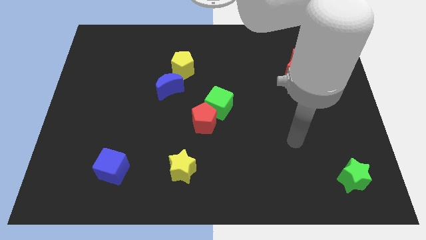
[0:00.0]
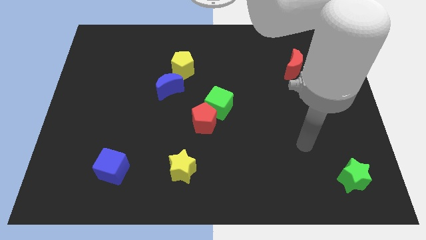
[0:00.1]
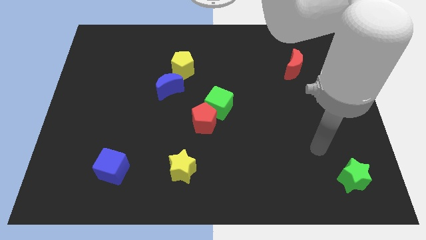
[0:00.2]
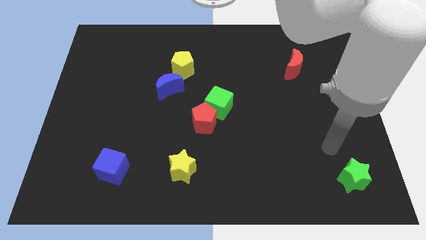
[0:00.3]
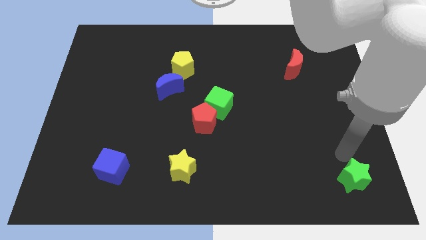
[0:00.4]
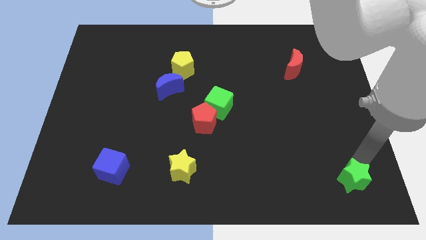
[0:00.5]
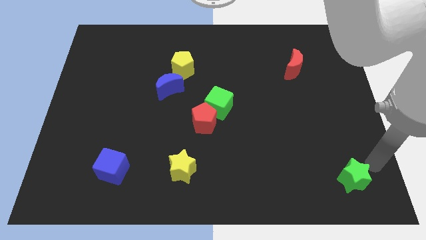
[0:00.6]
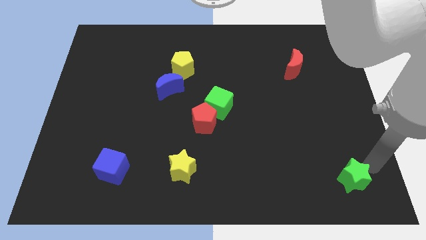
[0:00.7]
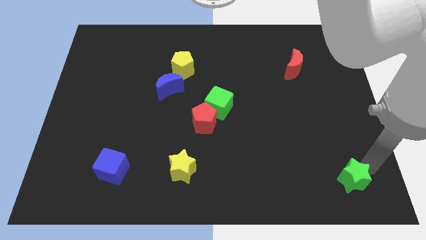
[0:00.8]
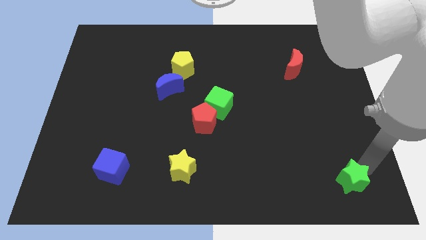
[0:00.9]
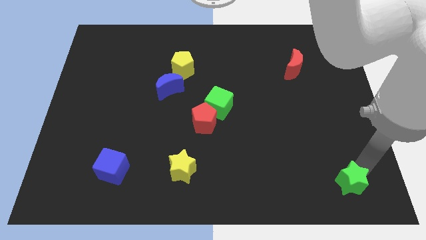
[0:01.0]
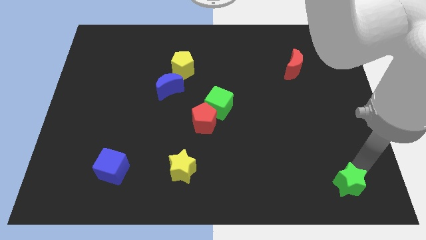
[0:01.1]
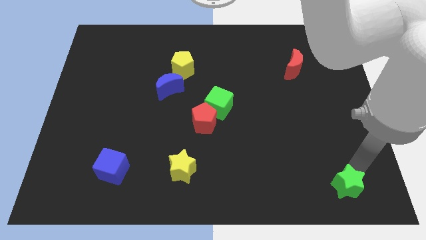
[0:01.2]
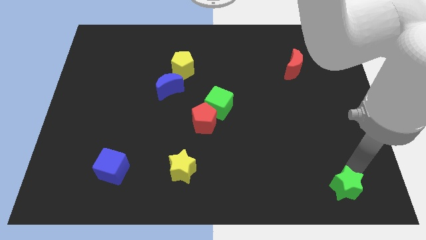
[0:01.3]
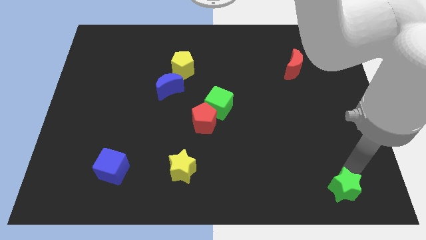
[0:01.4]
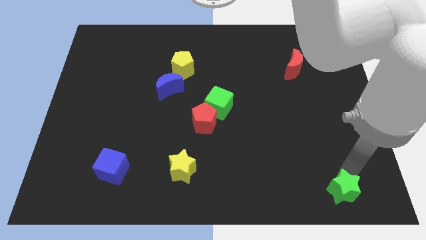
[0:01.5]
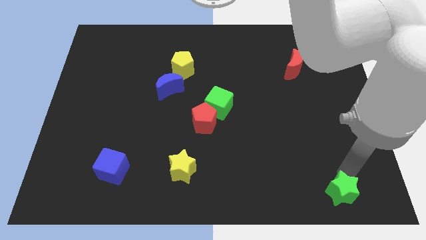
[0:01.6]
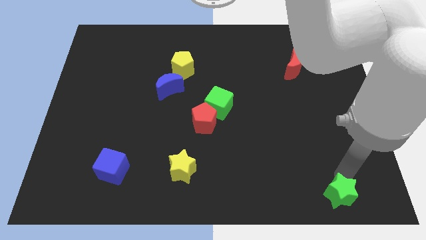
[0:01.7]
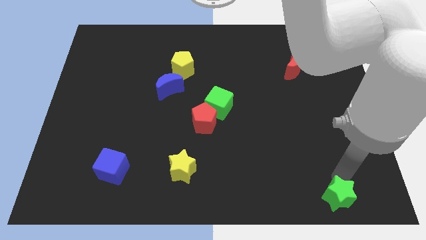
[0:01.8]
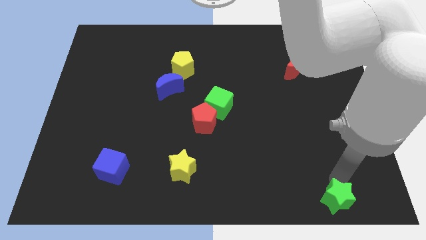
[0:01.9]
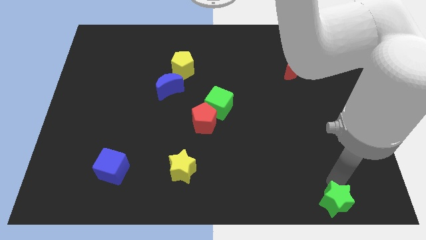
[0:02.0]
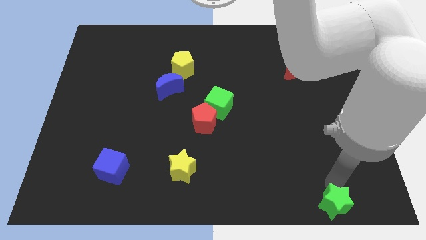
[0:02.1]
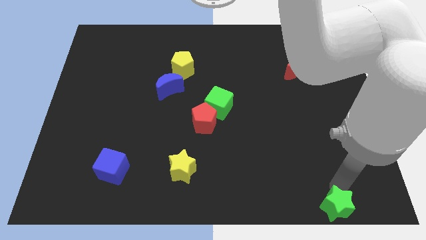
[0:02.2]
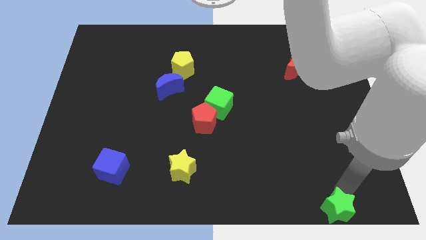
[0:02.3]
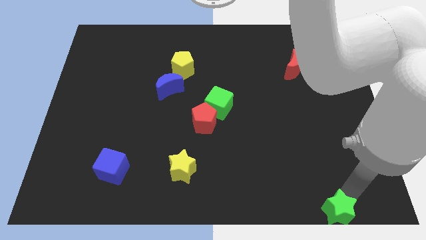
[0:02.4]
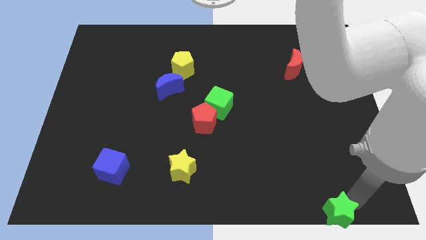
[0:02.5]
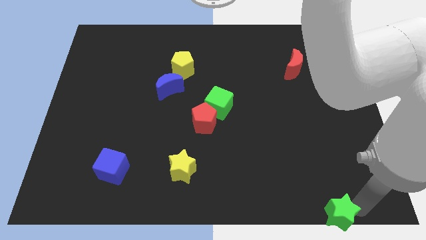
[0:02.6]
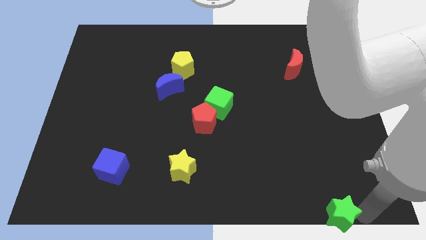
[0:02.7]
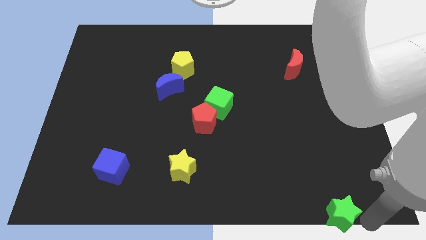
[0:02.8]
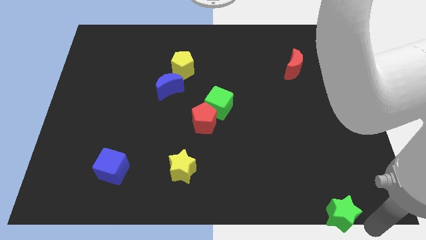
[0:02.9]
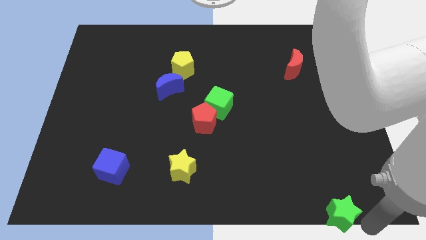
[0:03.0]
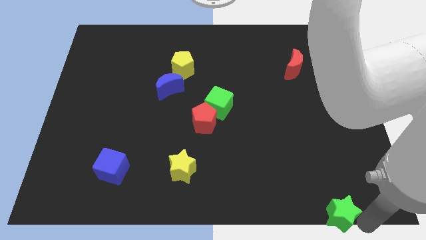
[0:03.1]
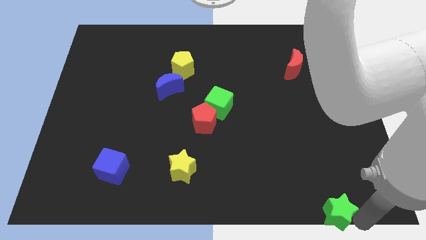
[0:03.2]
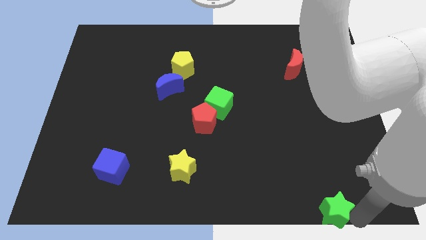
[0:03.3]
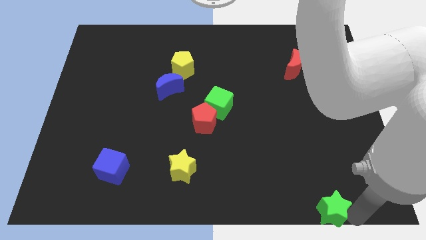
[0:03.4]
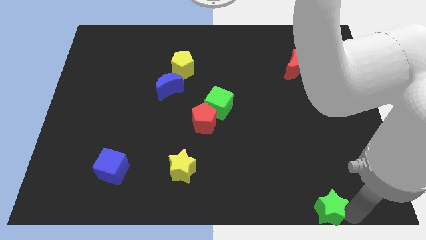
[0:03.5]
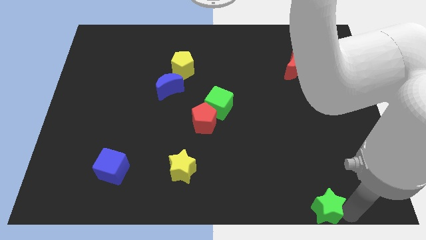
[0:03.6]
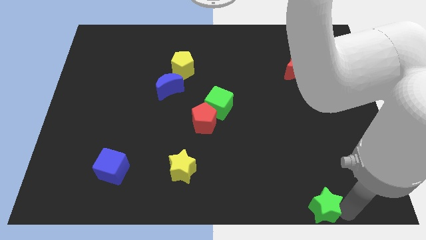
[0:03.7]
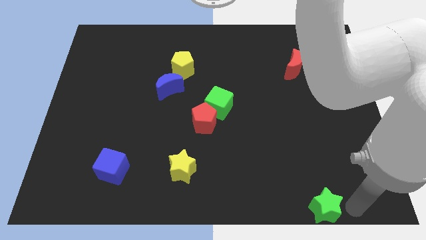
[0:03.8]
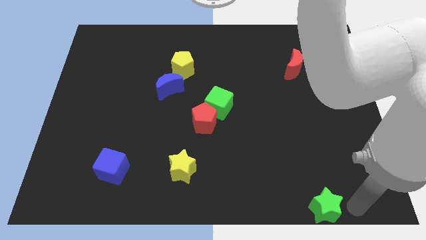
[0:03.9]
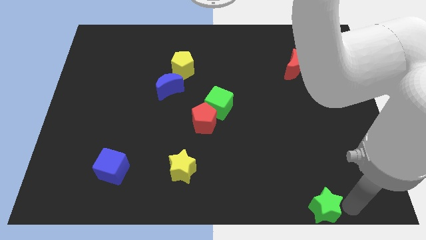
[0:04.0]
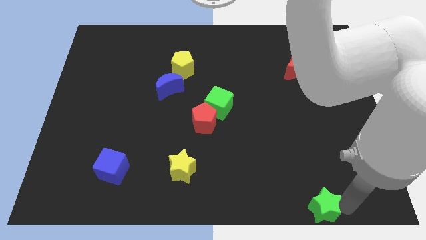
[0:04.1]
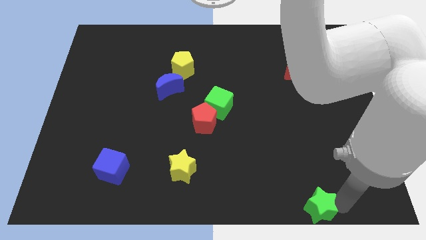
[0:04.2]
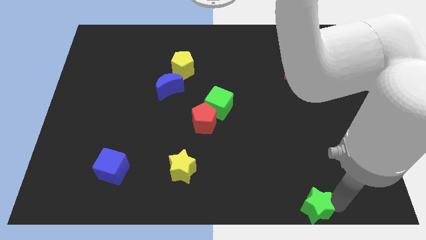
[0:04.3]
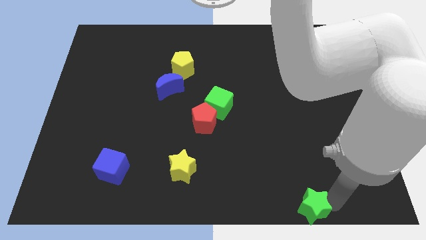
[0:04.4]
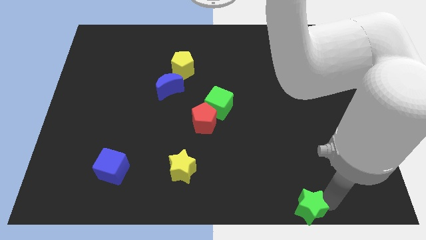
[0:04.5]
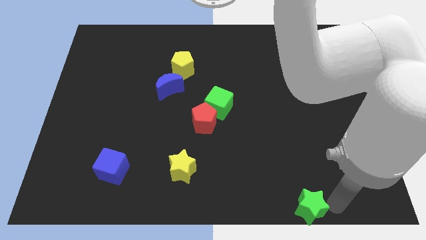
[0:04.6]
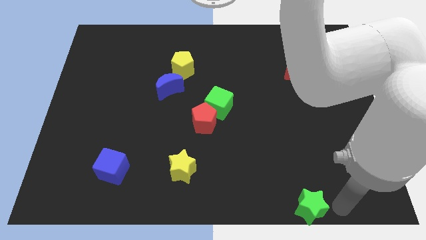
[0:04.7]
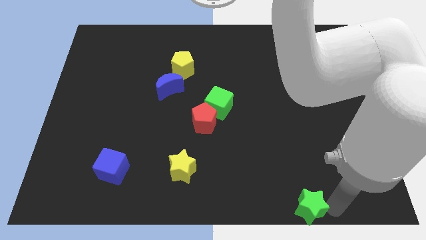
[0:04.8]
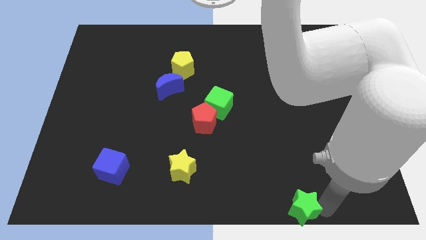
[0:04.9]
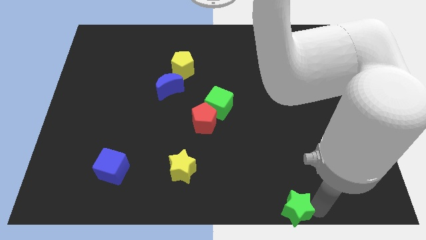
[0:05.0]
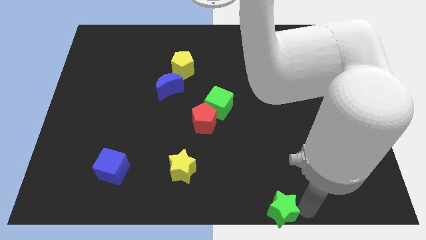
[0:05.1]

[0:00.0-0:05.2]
slide the green star to the bottom

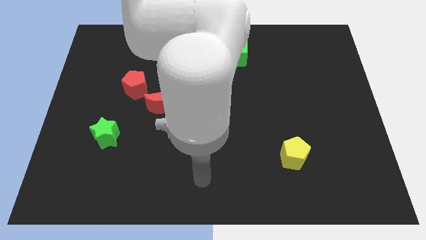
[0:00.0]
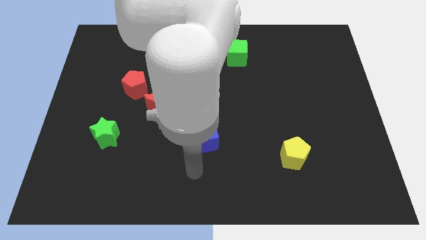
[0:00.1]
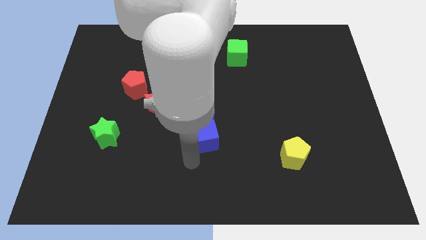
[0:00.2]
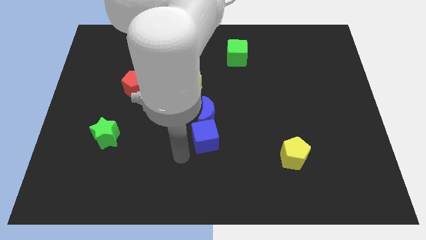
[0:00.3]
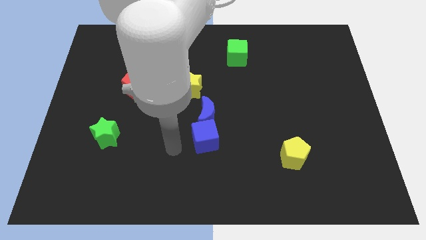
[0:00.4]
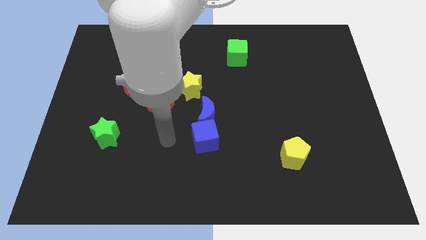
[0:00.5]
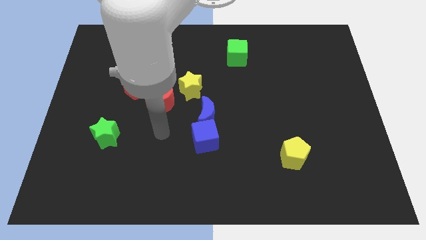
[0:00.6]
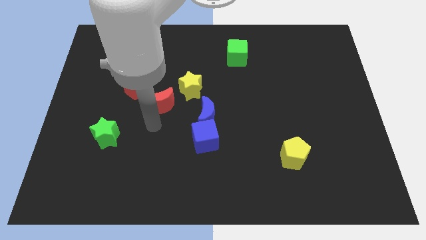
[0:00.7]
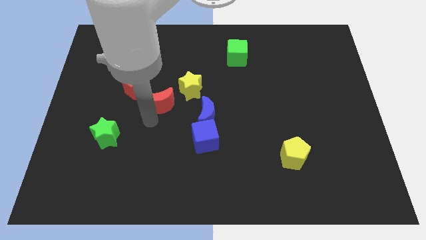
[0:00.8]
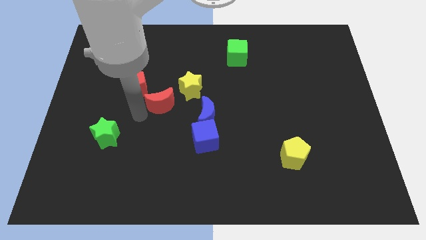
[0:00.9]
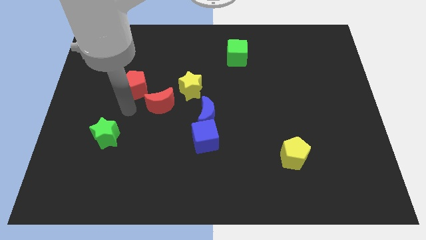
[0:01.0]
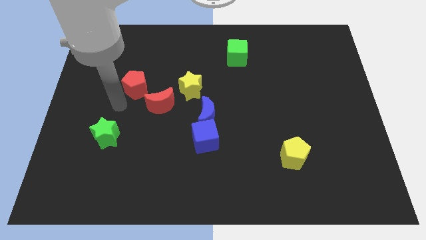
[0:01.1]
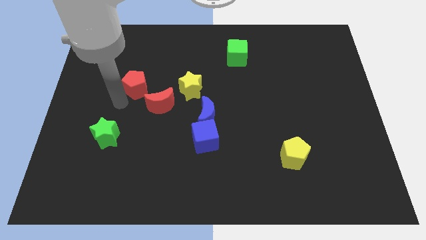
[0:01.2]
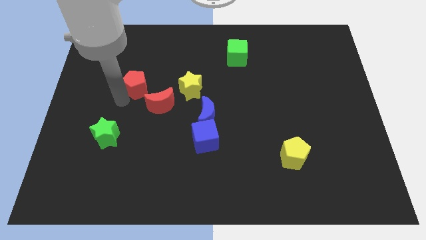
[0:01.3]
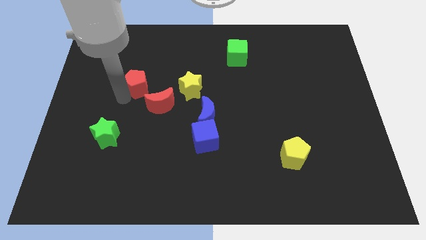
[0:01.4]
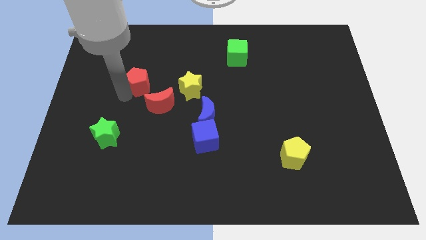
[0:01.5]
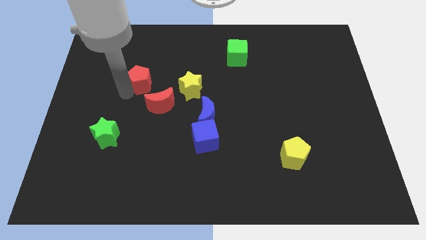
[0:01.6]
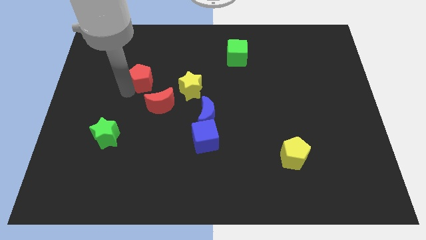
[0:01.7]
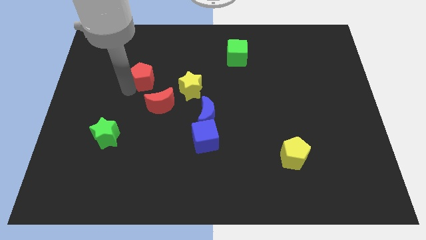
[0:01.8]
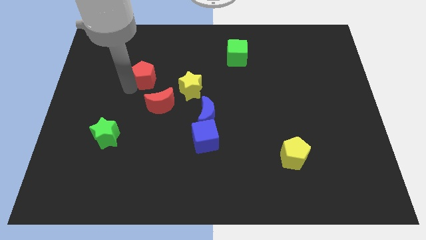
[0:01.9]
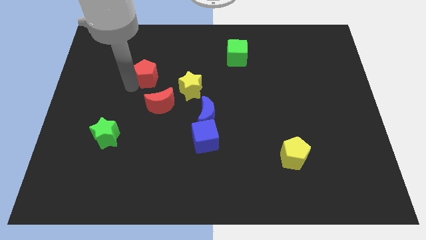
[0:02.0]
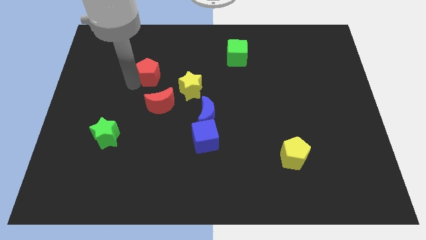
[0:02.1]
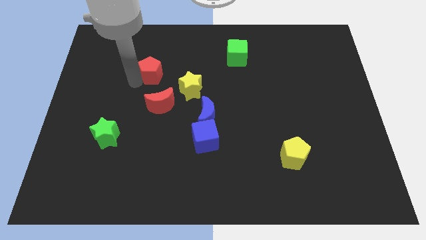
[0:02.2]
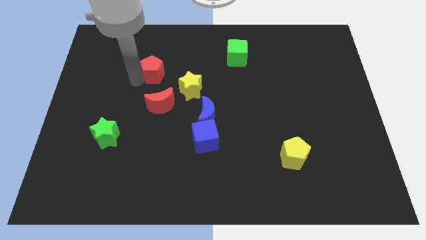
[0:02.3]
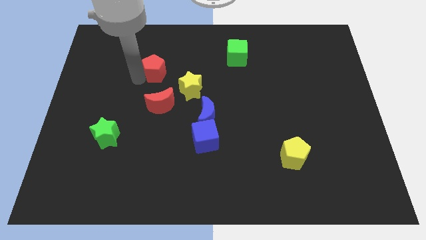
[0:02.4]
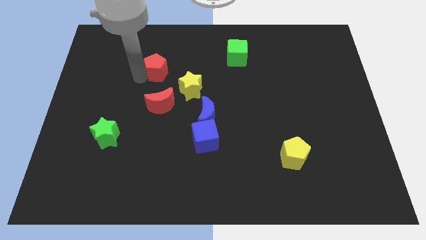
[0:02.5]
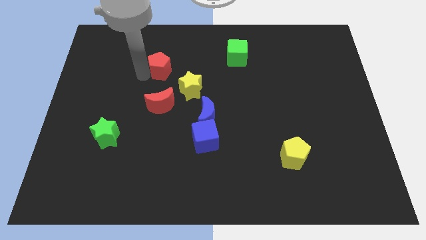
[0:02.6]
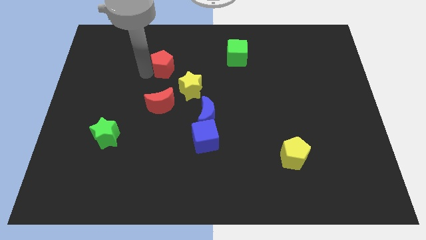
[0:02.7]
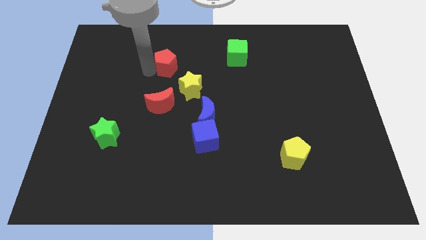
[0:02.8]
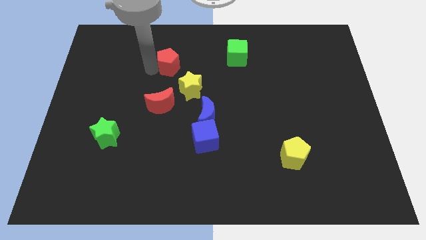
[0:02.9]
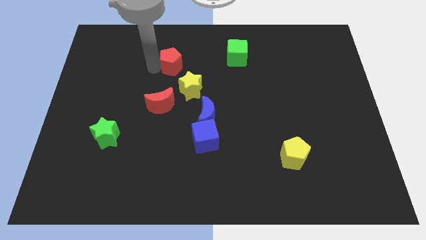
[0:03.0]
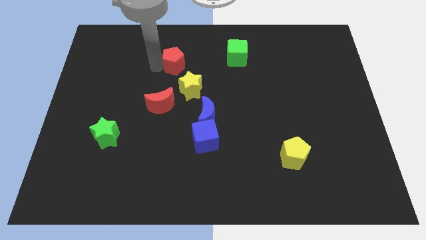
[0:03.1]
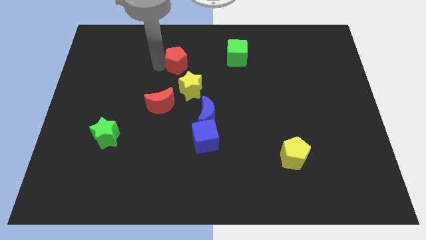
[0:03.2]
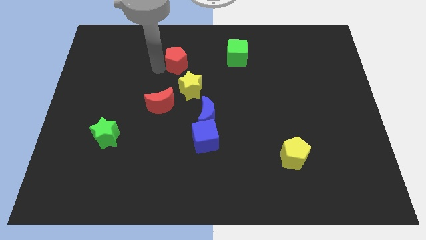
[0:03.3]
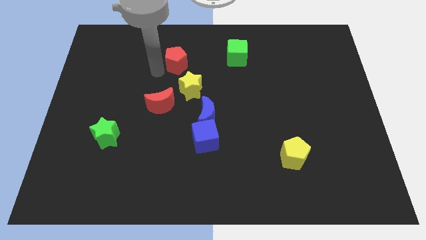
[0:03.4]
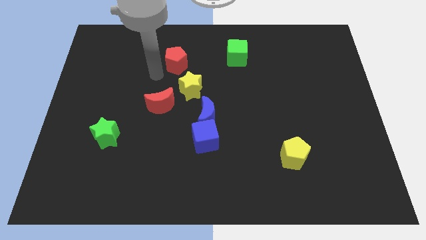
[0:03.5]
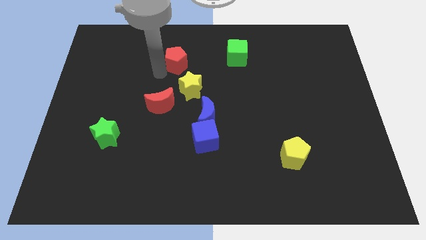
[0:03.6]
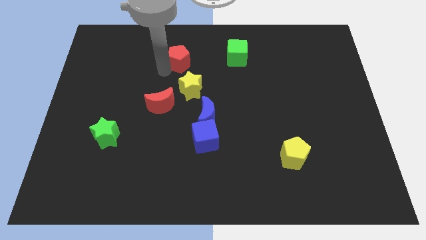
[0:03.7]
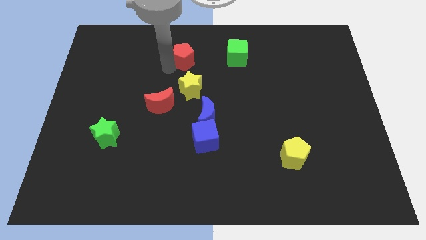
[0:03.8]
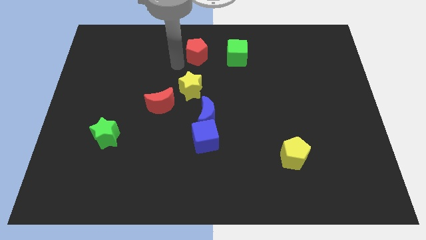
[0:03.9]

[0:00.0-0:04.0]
push the red pentagon to the towards your base
